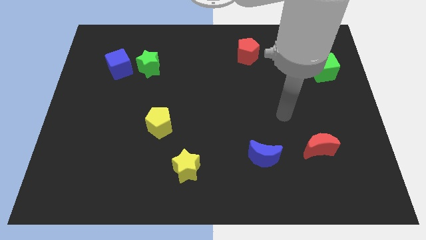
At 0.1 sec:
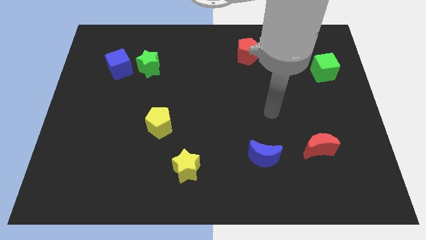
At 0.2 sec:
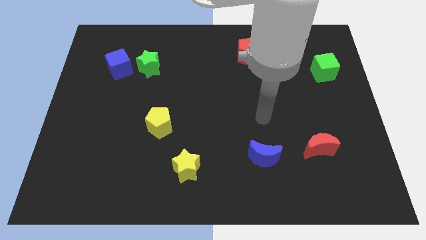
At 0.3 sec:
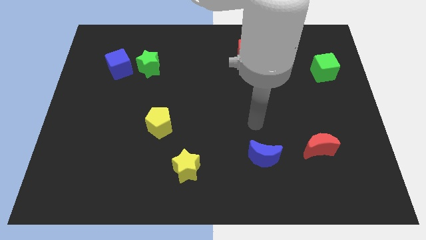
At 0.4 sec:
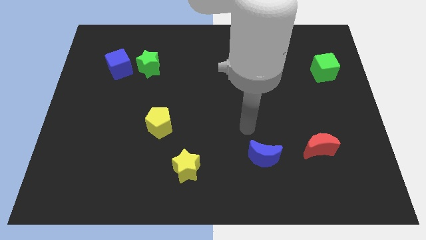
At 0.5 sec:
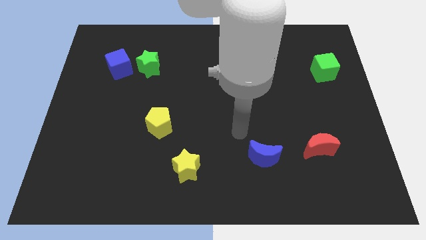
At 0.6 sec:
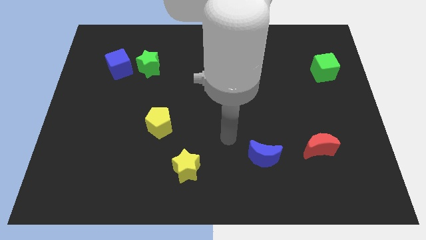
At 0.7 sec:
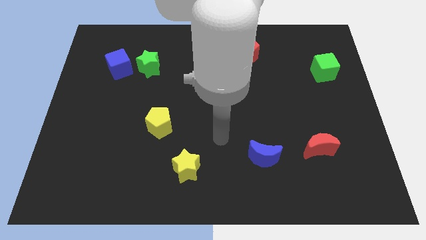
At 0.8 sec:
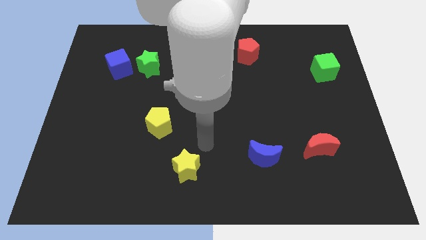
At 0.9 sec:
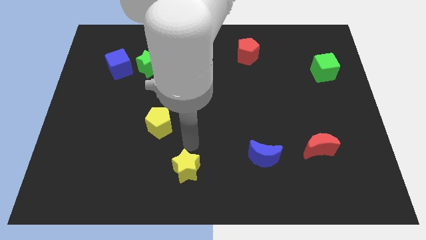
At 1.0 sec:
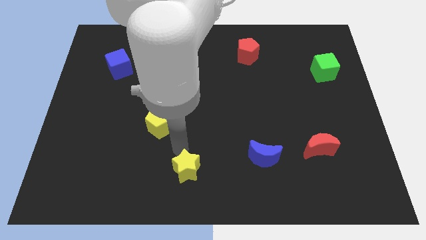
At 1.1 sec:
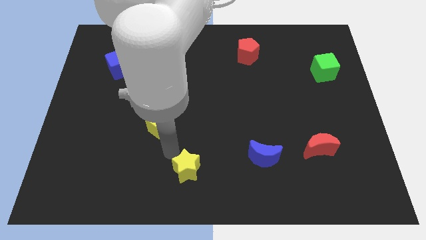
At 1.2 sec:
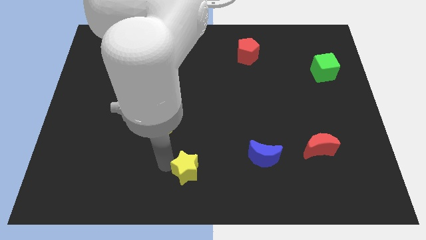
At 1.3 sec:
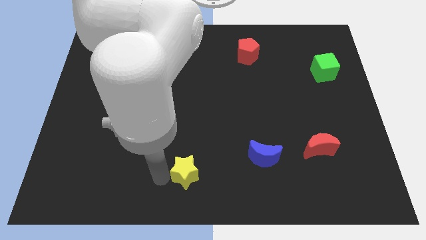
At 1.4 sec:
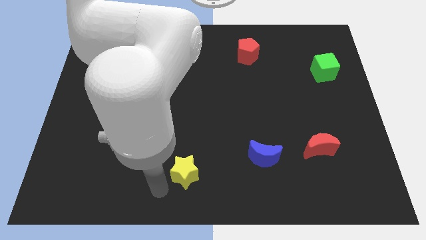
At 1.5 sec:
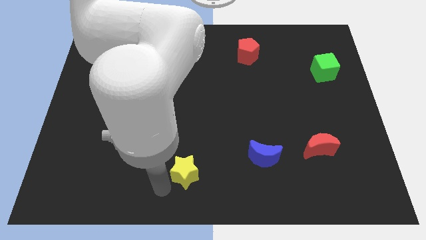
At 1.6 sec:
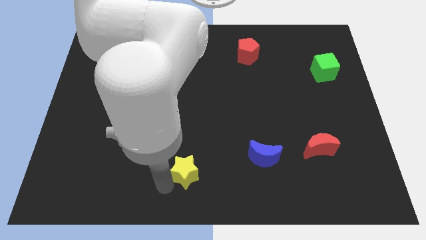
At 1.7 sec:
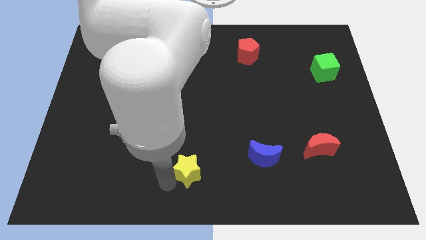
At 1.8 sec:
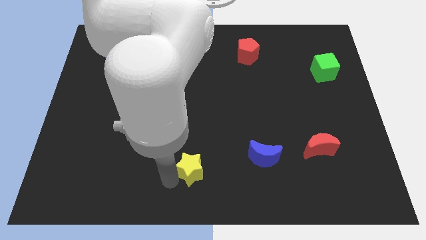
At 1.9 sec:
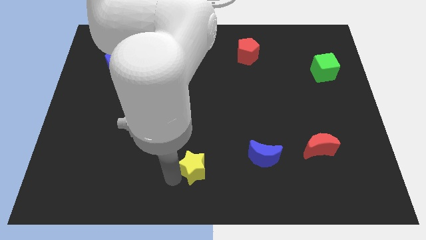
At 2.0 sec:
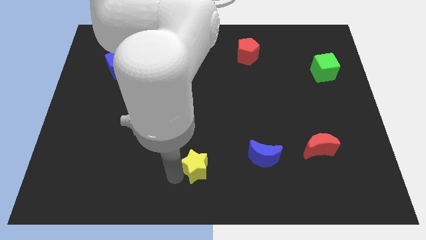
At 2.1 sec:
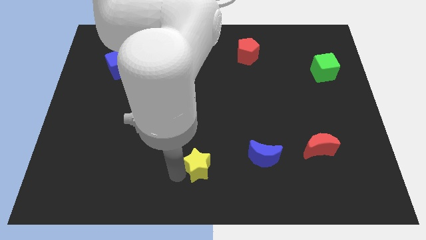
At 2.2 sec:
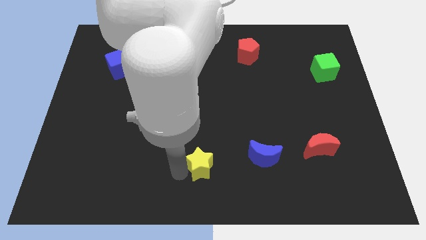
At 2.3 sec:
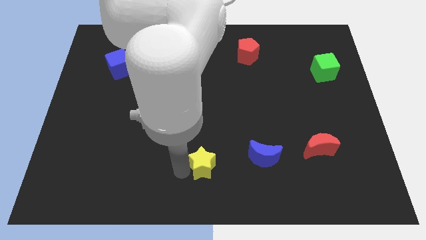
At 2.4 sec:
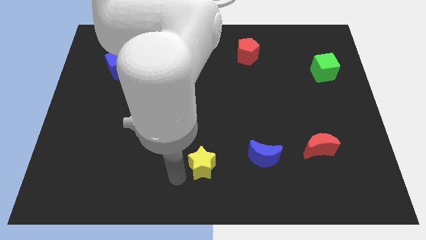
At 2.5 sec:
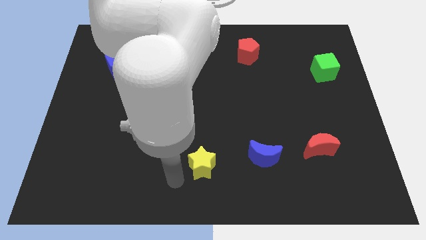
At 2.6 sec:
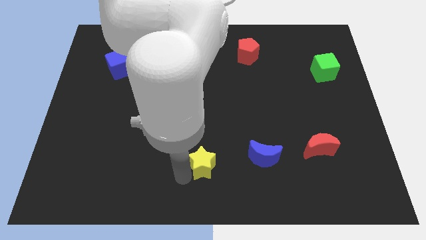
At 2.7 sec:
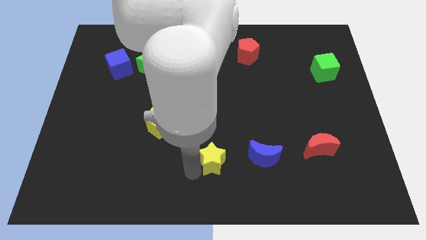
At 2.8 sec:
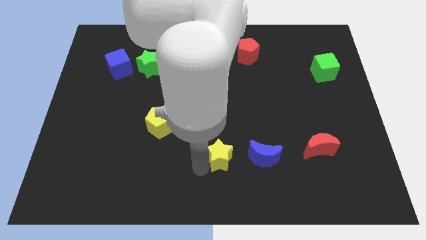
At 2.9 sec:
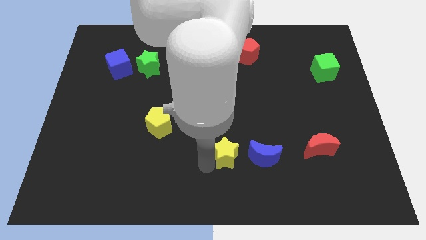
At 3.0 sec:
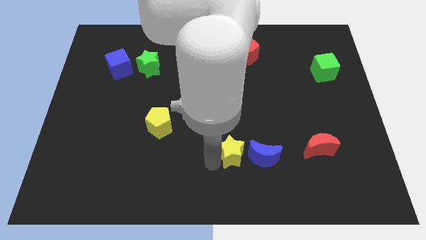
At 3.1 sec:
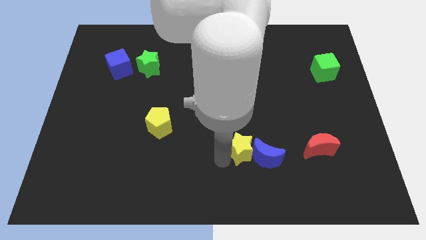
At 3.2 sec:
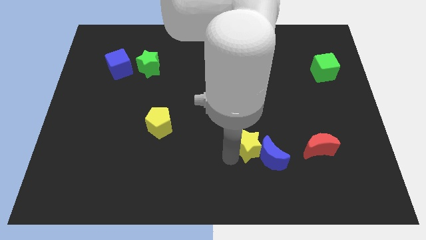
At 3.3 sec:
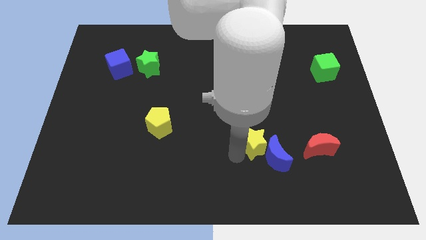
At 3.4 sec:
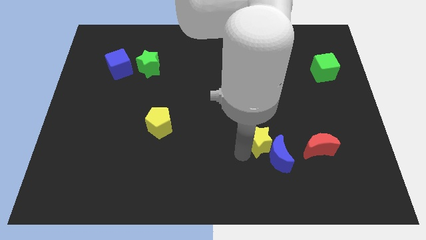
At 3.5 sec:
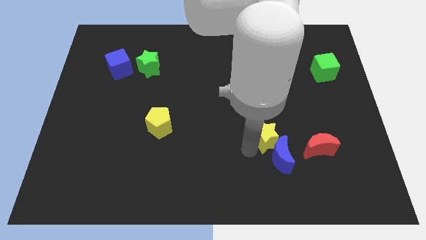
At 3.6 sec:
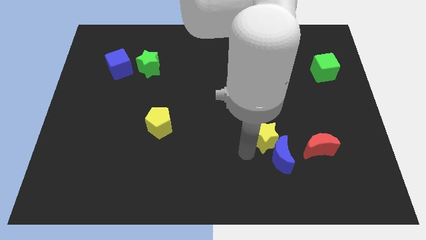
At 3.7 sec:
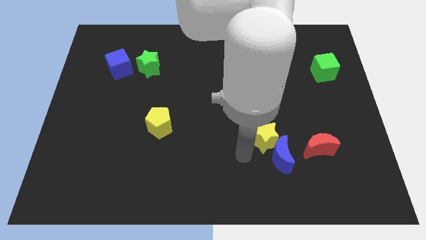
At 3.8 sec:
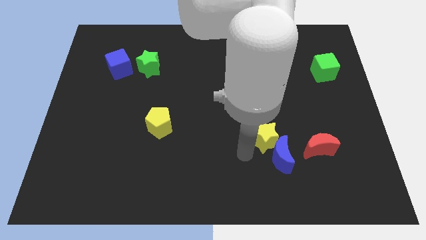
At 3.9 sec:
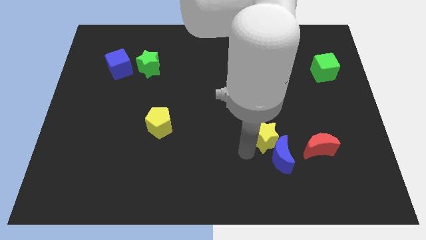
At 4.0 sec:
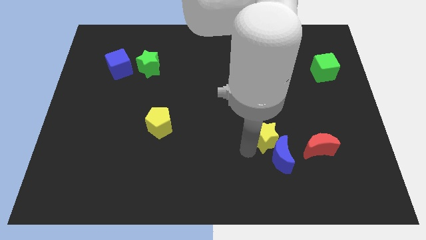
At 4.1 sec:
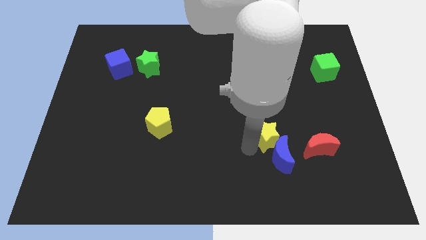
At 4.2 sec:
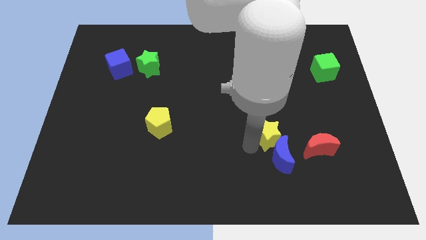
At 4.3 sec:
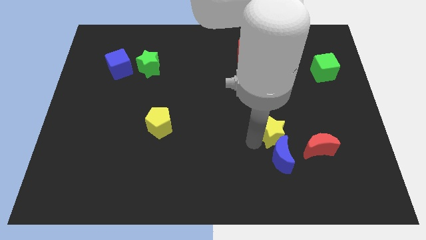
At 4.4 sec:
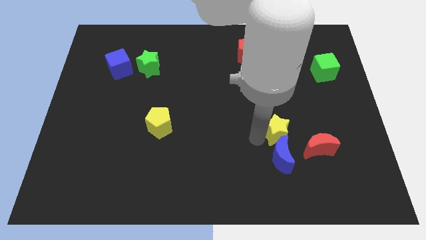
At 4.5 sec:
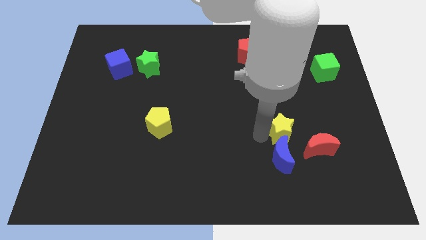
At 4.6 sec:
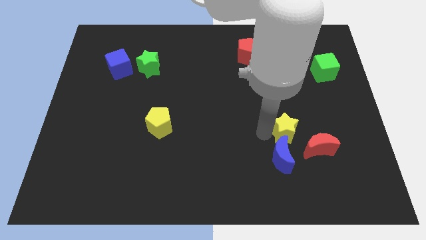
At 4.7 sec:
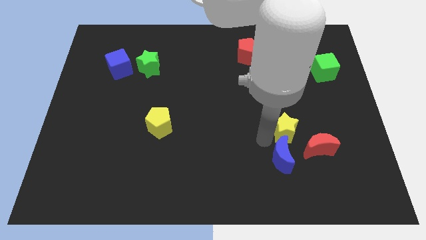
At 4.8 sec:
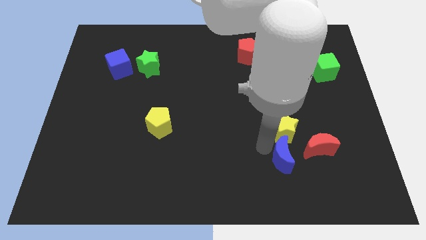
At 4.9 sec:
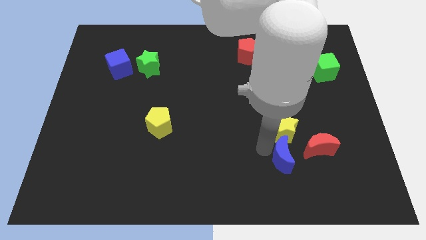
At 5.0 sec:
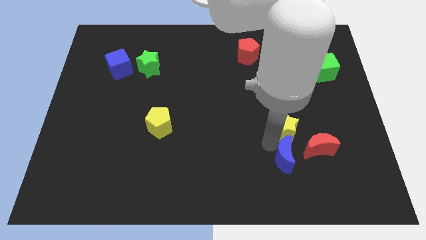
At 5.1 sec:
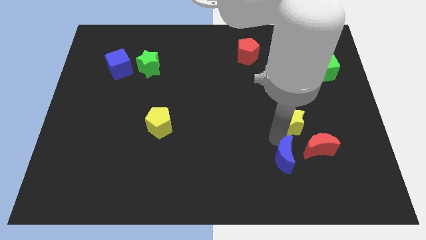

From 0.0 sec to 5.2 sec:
put the yellow star to the top side of the red moon

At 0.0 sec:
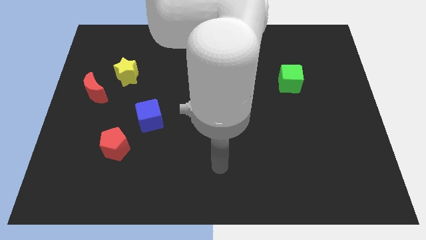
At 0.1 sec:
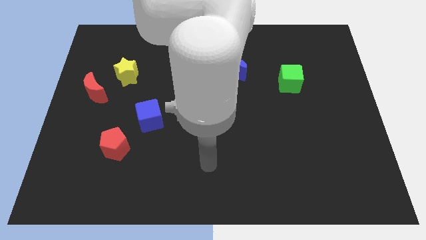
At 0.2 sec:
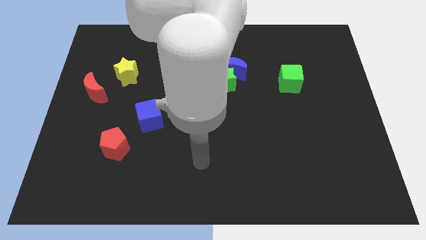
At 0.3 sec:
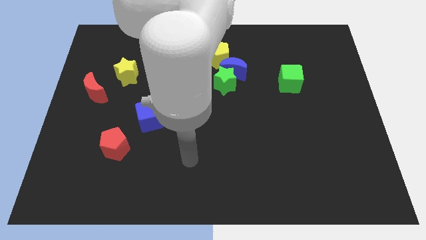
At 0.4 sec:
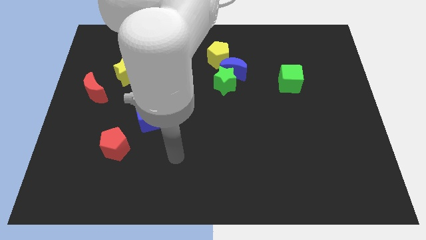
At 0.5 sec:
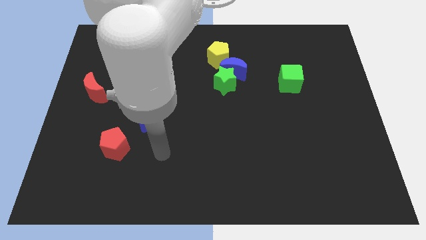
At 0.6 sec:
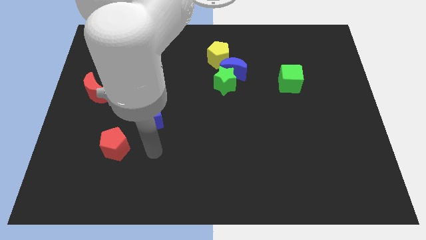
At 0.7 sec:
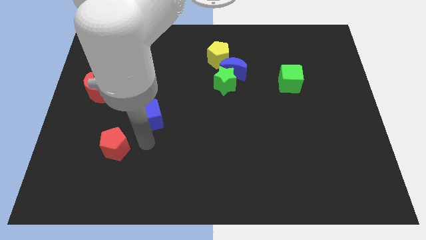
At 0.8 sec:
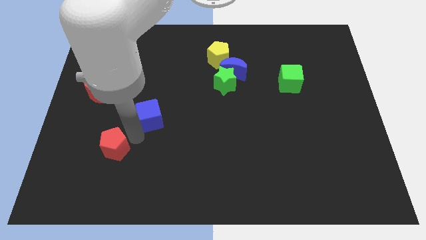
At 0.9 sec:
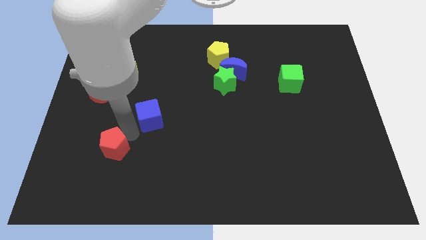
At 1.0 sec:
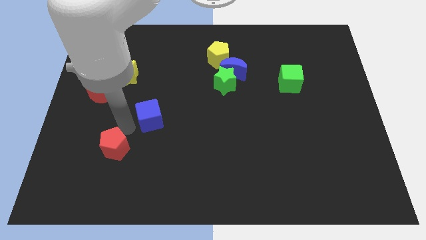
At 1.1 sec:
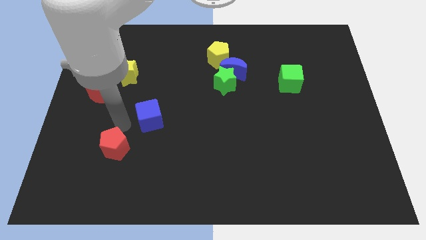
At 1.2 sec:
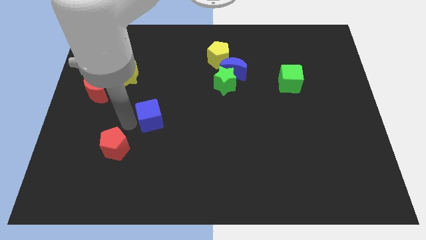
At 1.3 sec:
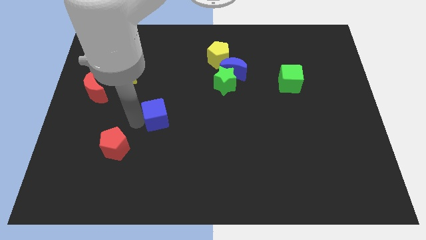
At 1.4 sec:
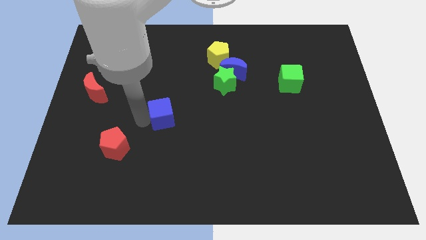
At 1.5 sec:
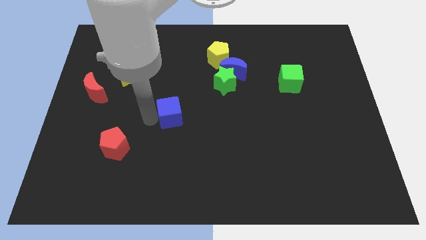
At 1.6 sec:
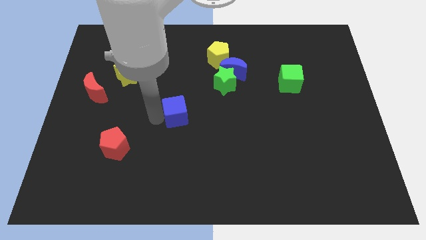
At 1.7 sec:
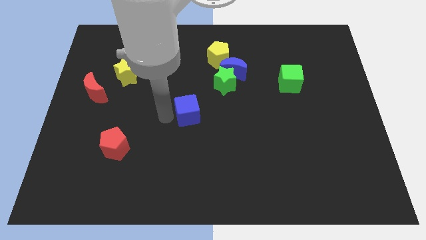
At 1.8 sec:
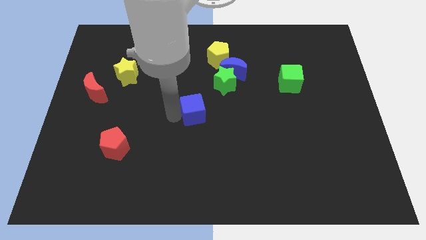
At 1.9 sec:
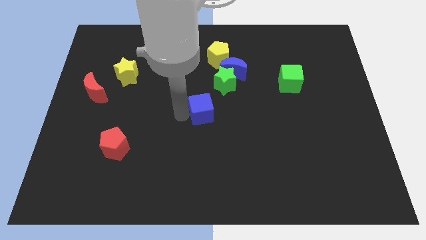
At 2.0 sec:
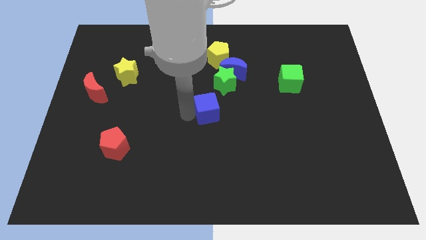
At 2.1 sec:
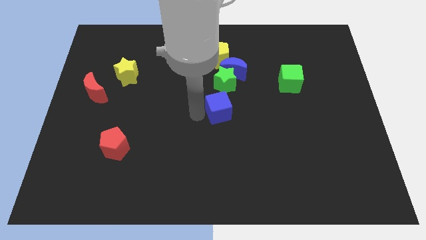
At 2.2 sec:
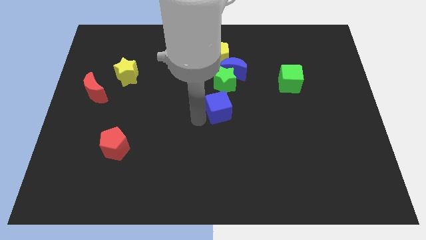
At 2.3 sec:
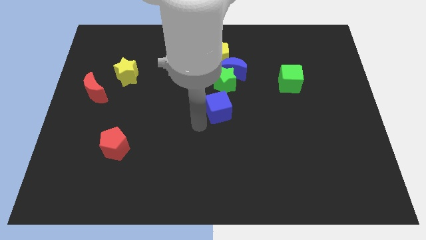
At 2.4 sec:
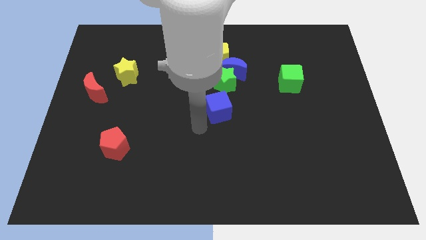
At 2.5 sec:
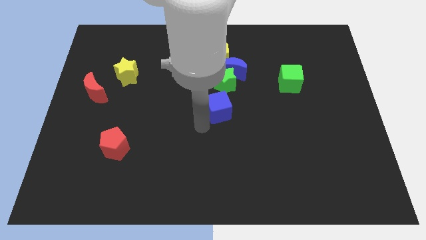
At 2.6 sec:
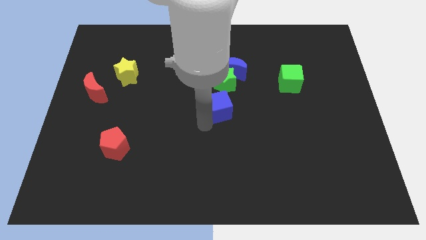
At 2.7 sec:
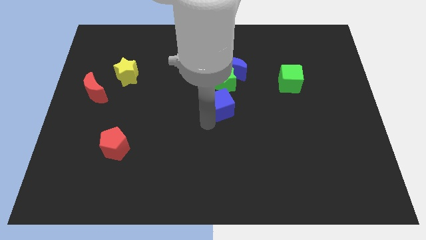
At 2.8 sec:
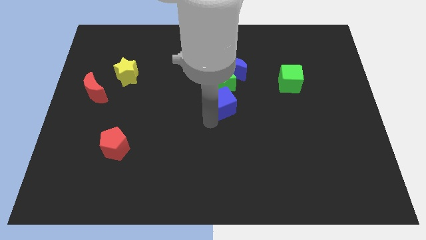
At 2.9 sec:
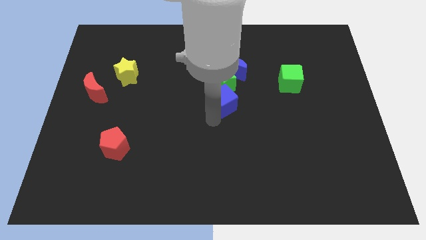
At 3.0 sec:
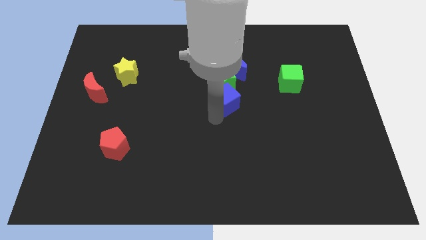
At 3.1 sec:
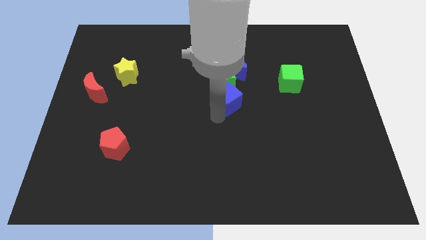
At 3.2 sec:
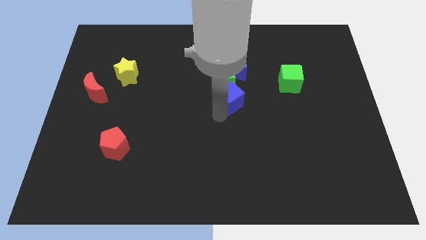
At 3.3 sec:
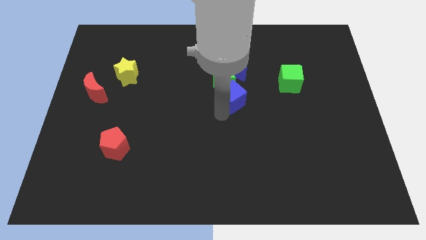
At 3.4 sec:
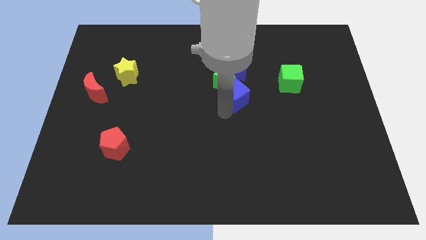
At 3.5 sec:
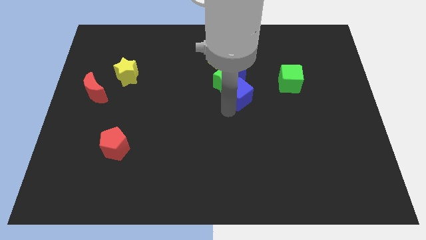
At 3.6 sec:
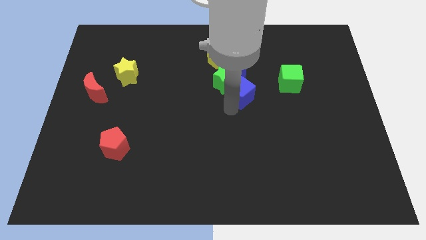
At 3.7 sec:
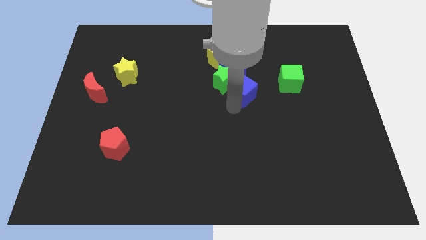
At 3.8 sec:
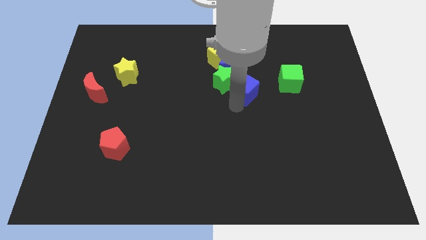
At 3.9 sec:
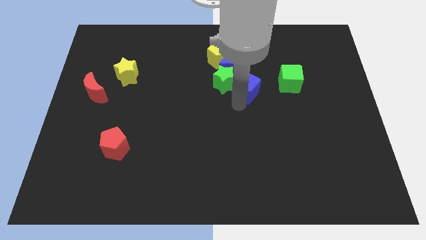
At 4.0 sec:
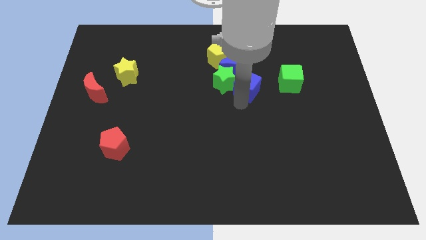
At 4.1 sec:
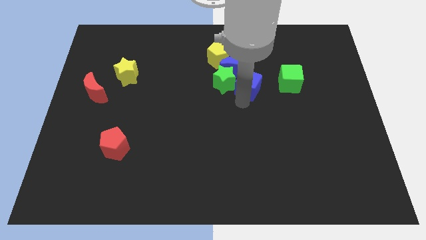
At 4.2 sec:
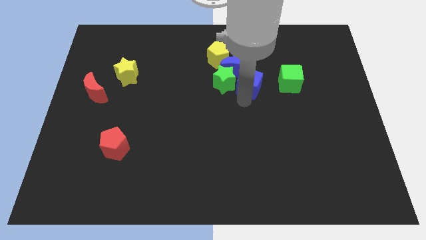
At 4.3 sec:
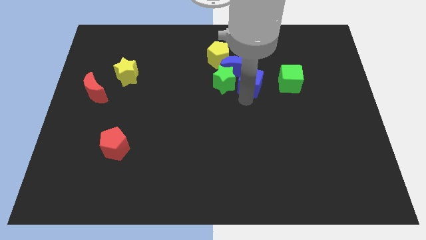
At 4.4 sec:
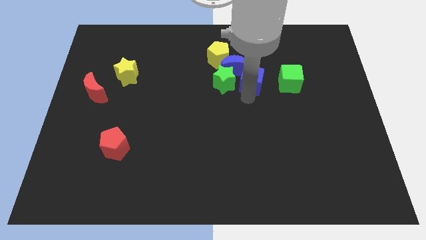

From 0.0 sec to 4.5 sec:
put the blue cube to the top right side of the green star
